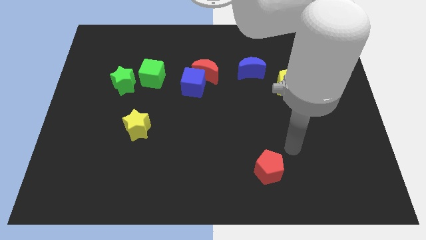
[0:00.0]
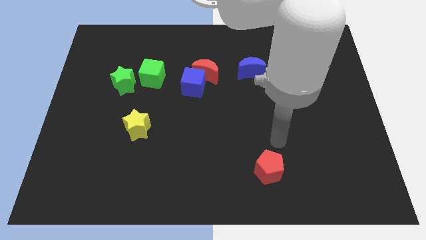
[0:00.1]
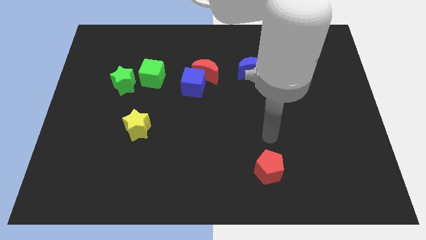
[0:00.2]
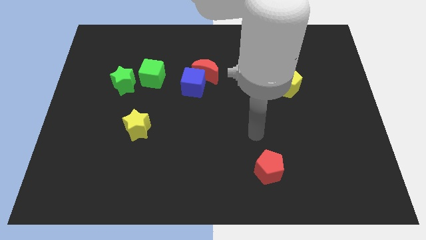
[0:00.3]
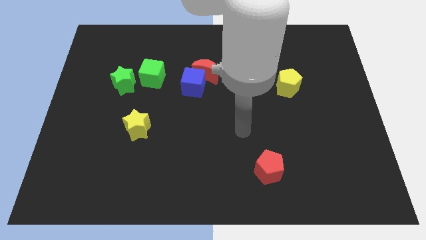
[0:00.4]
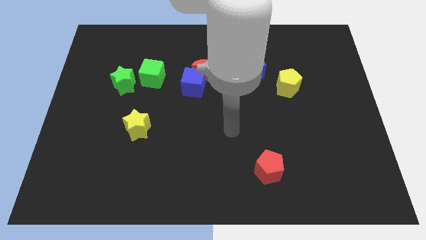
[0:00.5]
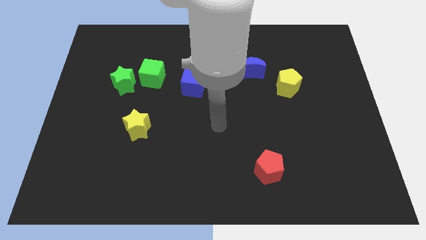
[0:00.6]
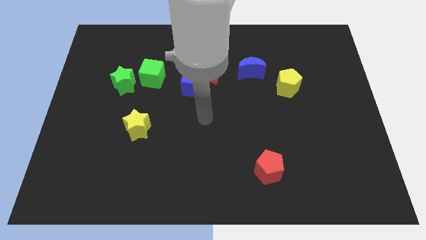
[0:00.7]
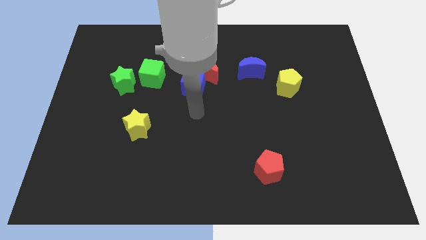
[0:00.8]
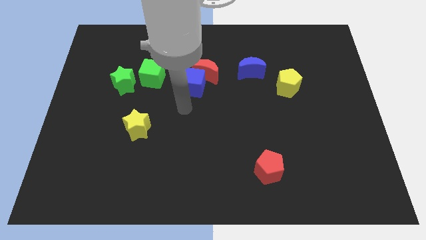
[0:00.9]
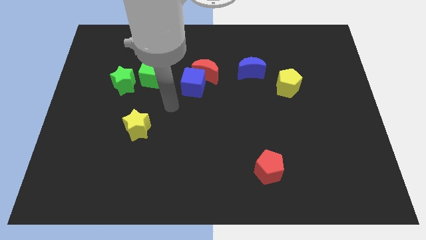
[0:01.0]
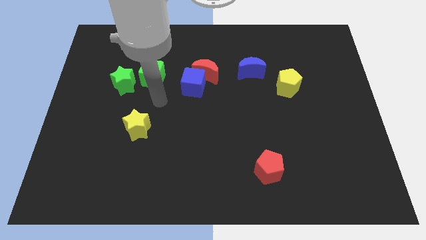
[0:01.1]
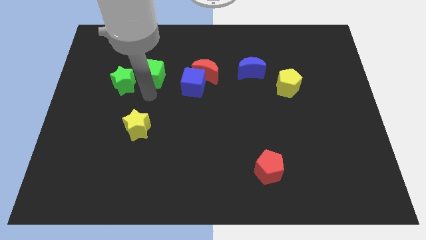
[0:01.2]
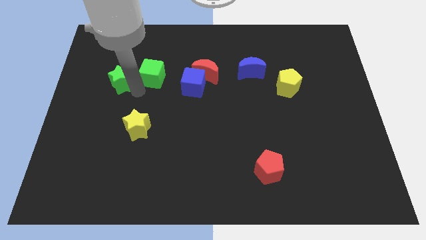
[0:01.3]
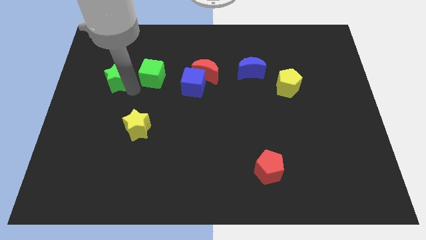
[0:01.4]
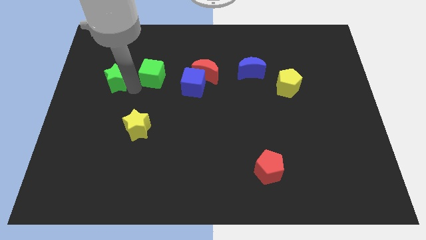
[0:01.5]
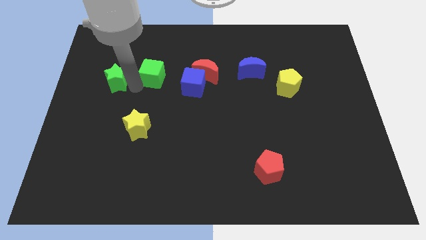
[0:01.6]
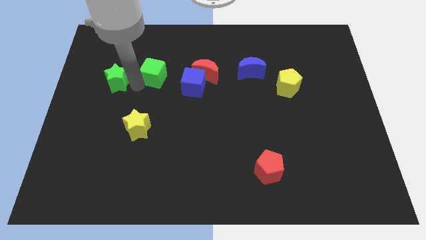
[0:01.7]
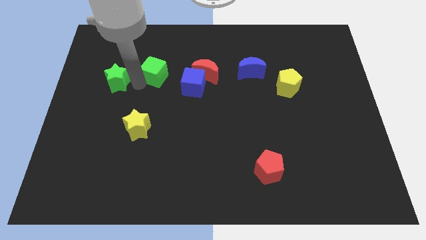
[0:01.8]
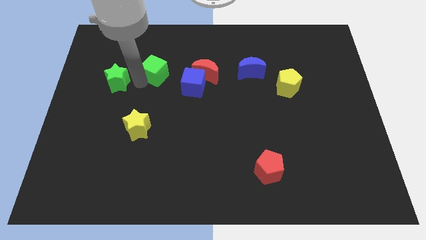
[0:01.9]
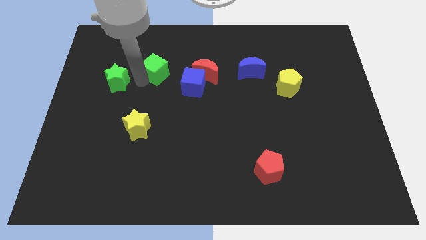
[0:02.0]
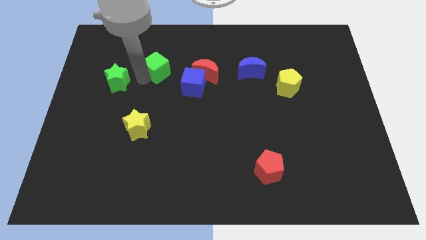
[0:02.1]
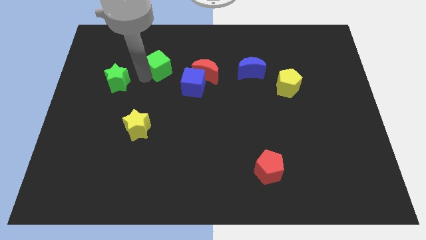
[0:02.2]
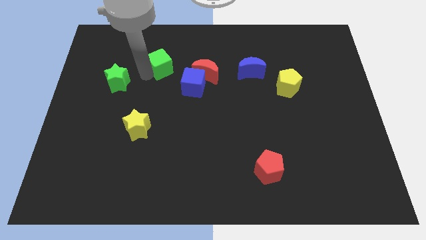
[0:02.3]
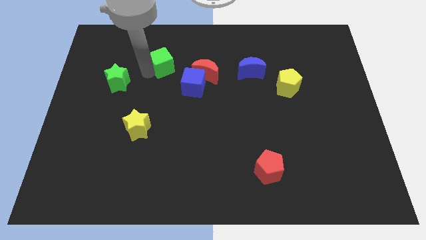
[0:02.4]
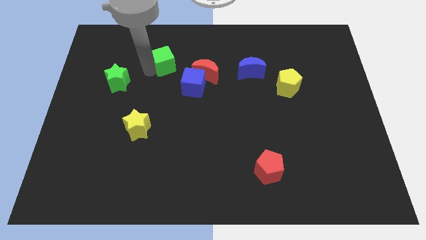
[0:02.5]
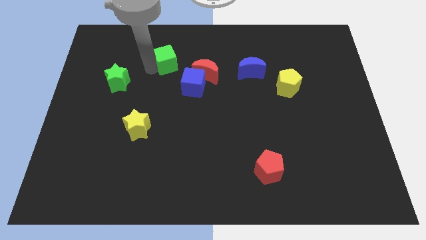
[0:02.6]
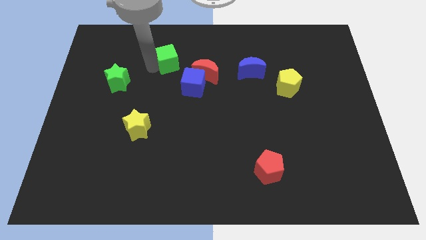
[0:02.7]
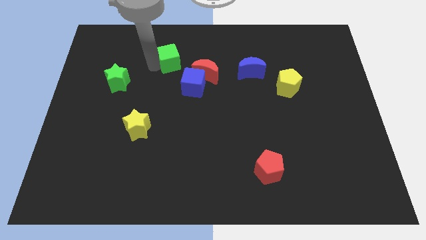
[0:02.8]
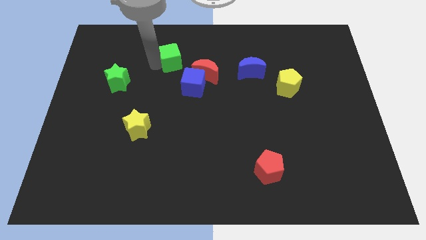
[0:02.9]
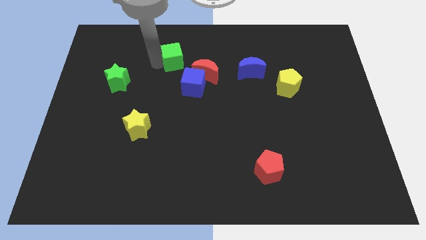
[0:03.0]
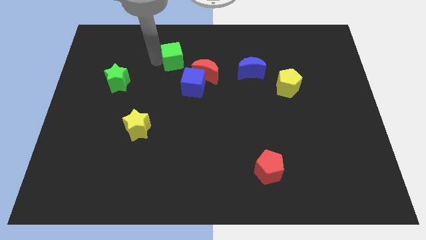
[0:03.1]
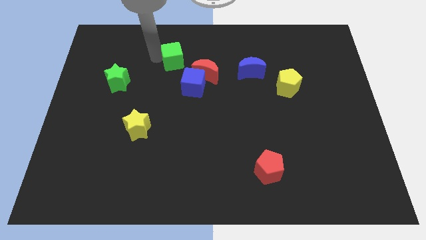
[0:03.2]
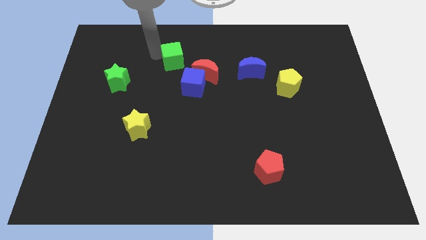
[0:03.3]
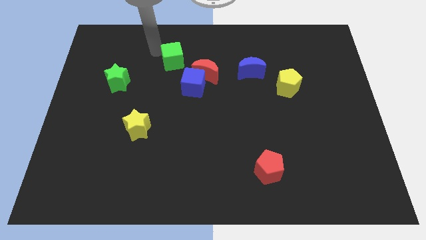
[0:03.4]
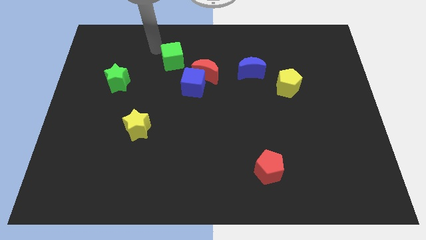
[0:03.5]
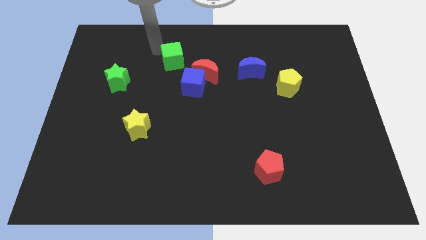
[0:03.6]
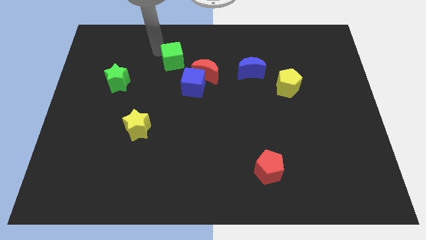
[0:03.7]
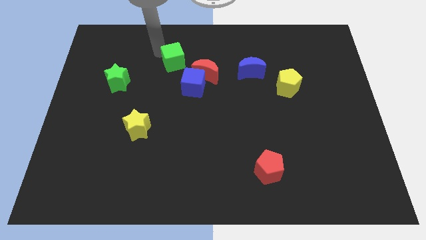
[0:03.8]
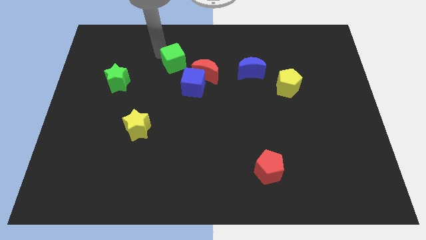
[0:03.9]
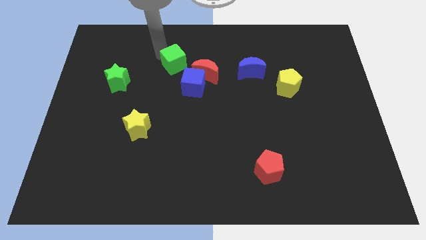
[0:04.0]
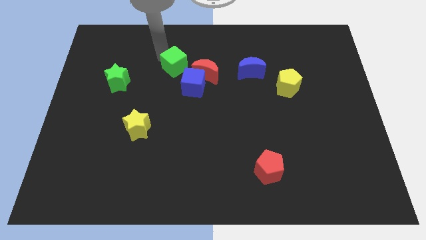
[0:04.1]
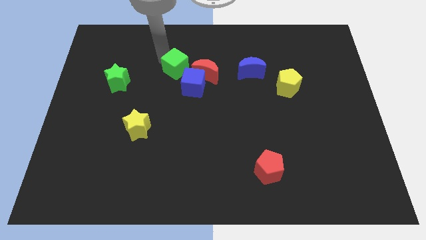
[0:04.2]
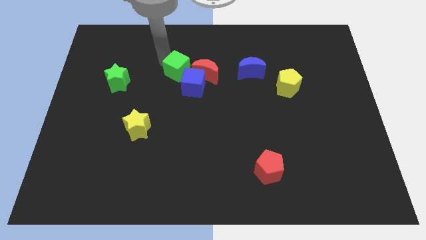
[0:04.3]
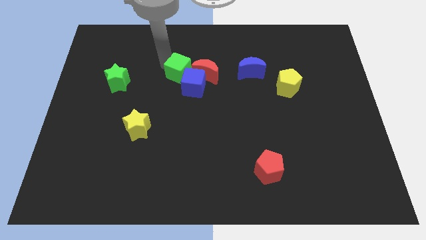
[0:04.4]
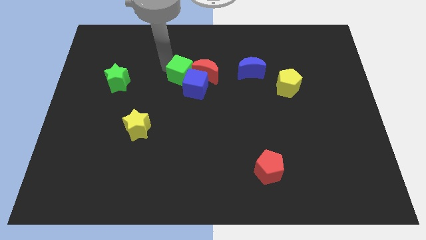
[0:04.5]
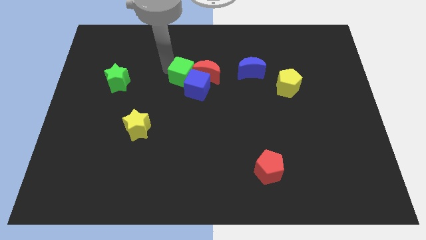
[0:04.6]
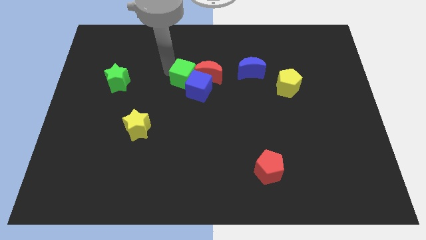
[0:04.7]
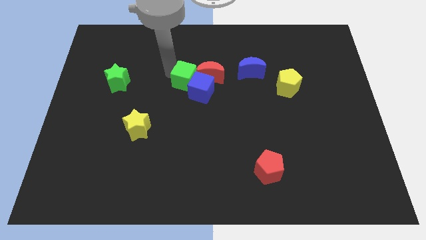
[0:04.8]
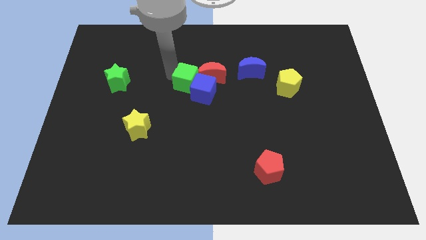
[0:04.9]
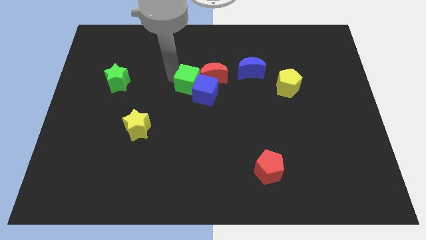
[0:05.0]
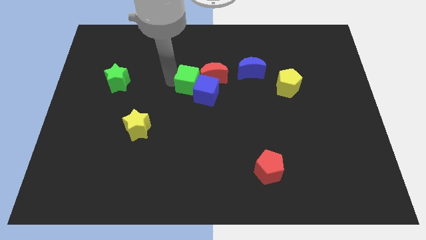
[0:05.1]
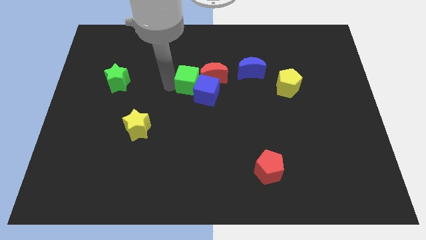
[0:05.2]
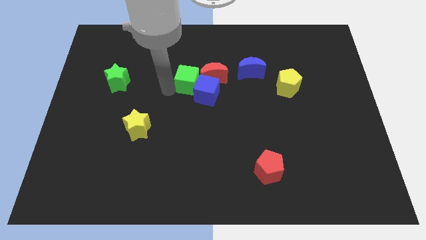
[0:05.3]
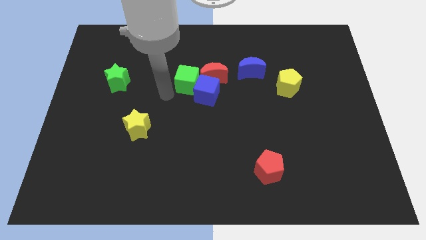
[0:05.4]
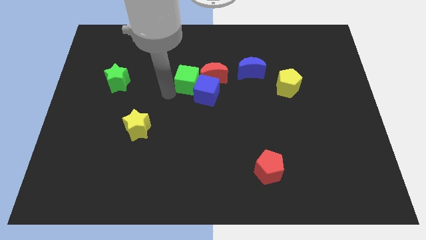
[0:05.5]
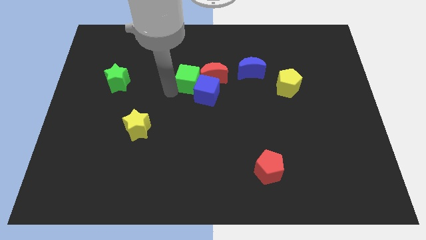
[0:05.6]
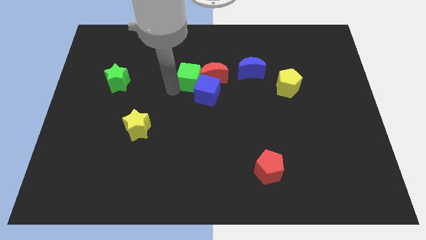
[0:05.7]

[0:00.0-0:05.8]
move the green cube just left of the blue moon
